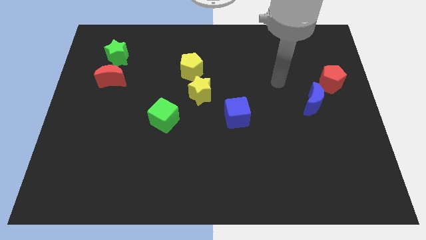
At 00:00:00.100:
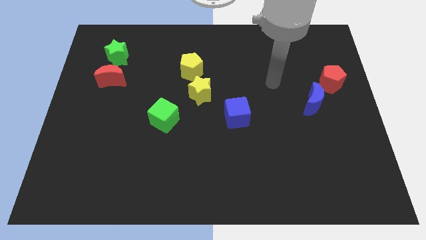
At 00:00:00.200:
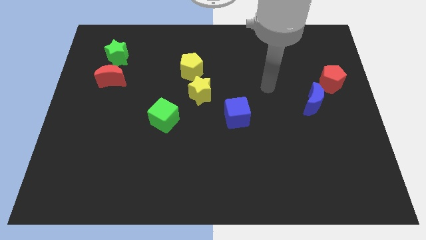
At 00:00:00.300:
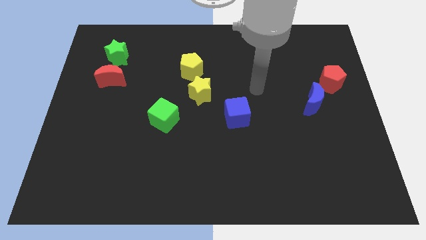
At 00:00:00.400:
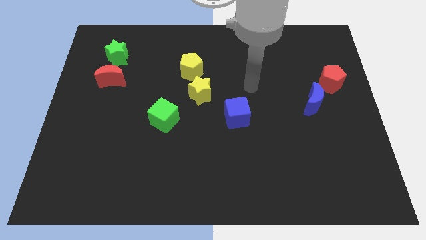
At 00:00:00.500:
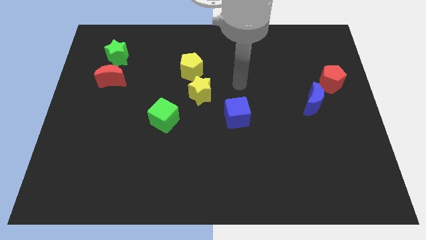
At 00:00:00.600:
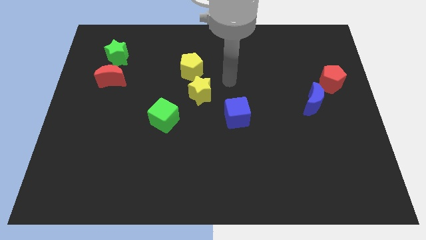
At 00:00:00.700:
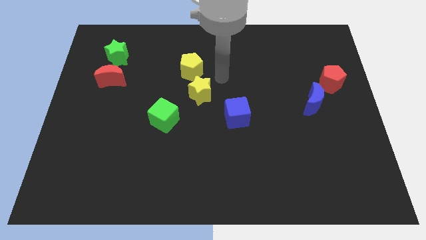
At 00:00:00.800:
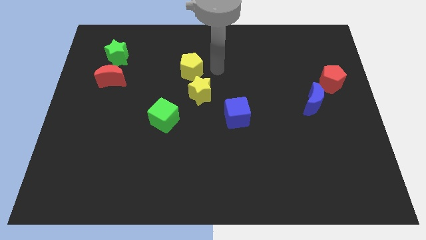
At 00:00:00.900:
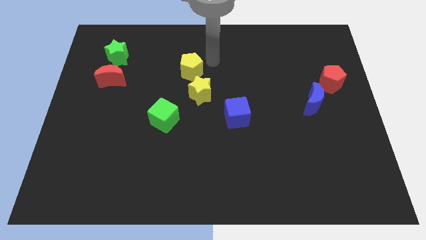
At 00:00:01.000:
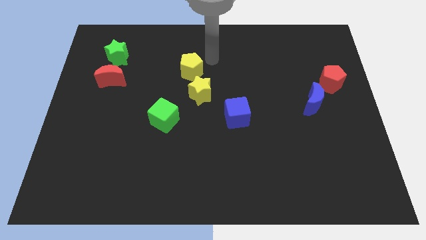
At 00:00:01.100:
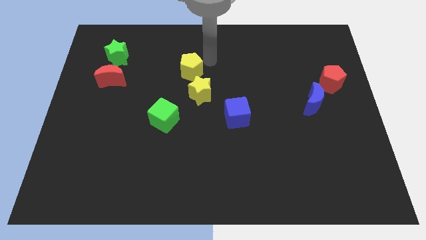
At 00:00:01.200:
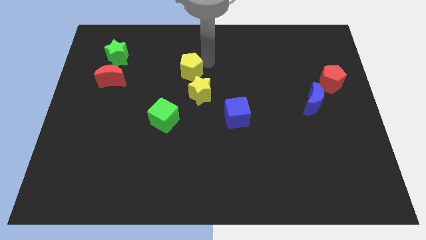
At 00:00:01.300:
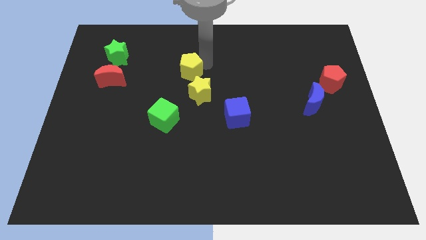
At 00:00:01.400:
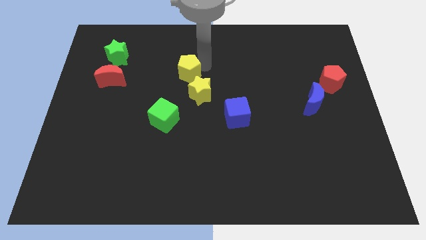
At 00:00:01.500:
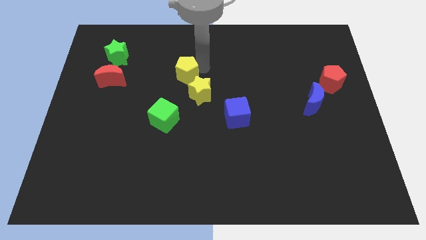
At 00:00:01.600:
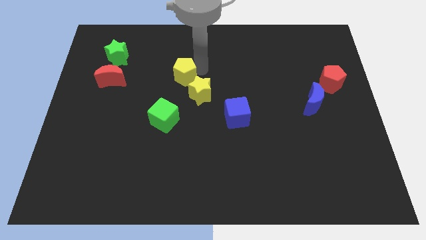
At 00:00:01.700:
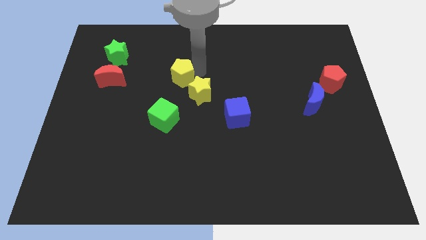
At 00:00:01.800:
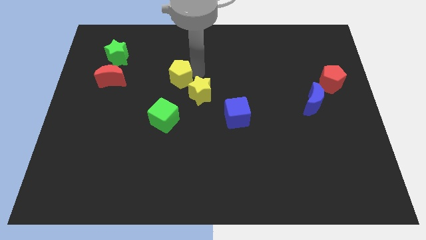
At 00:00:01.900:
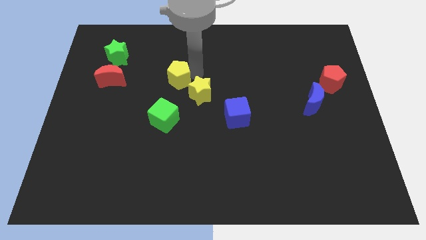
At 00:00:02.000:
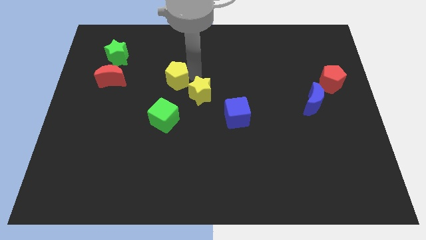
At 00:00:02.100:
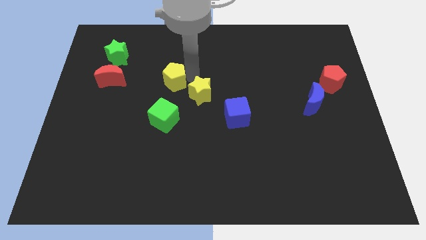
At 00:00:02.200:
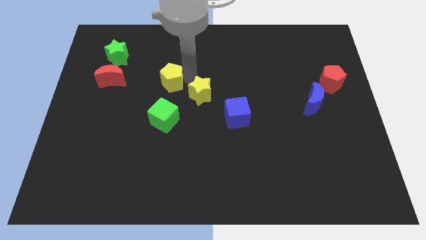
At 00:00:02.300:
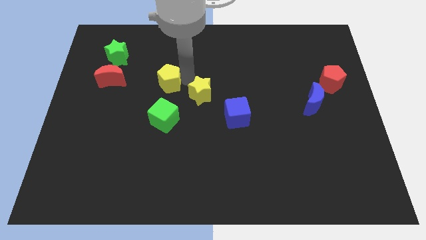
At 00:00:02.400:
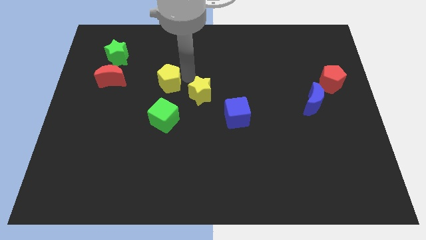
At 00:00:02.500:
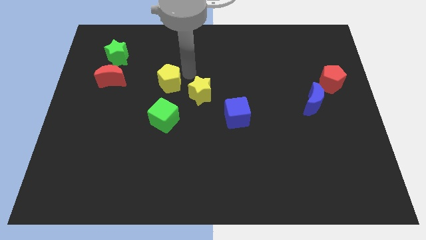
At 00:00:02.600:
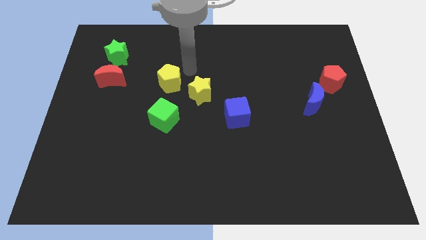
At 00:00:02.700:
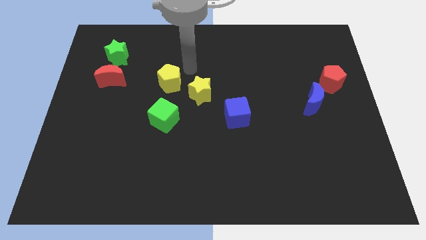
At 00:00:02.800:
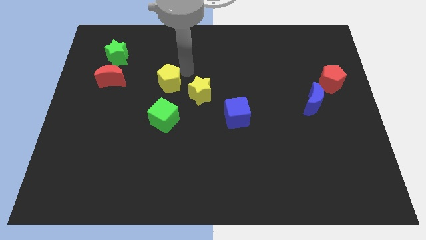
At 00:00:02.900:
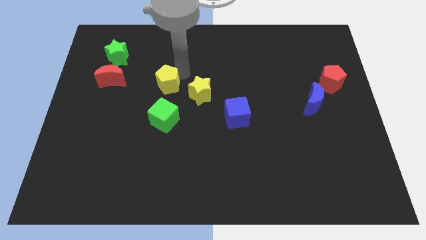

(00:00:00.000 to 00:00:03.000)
move the yellow pentagon downwards and to the left a bit

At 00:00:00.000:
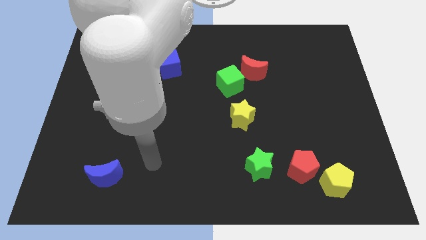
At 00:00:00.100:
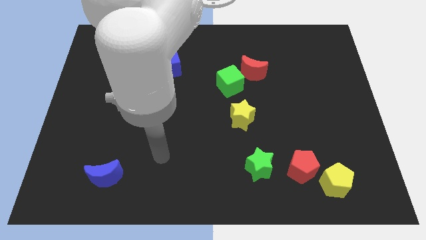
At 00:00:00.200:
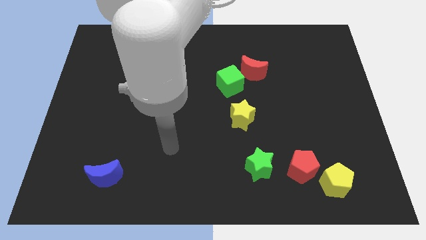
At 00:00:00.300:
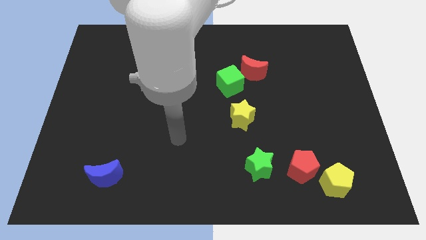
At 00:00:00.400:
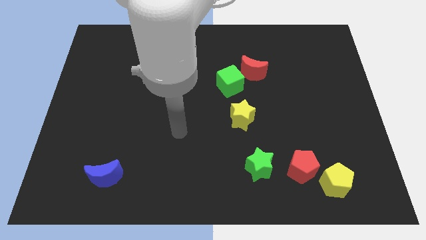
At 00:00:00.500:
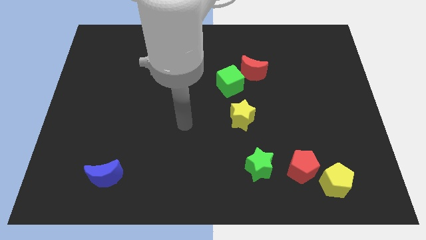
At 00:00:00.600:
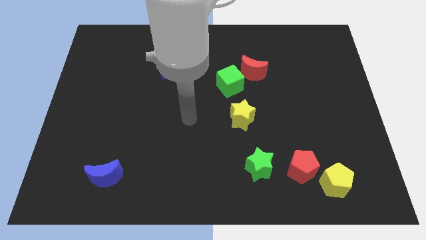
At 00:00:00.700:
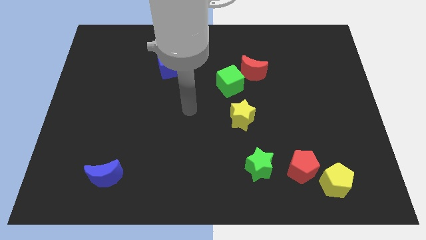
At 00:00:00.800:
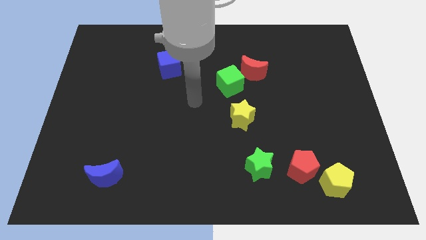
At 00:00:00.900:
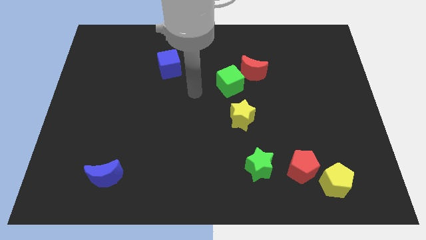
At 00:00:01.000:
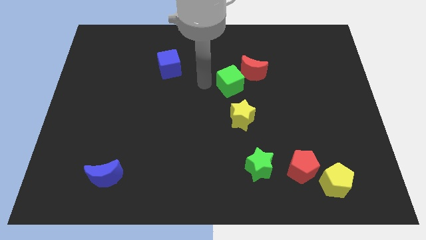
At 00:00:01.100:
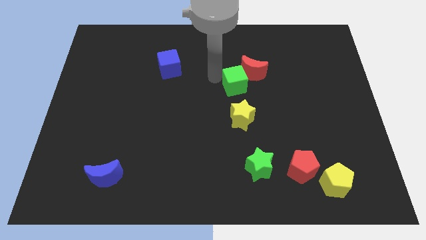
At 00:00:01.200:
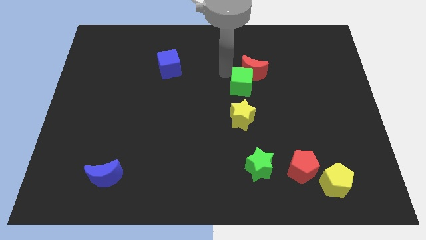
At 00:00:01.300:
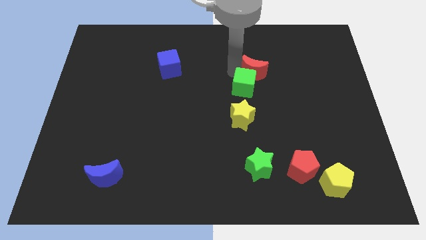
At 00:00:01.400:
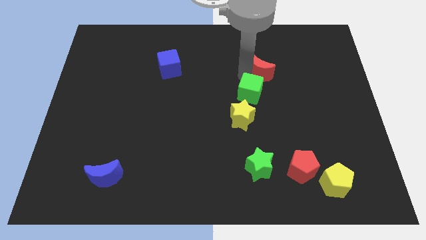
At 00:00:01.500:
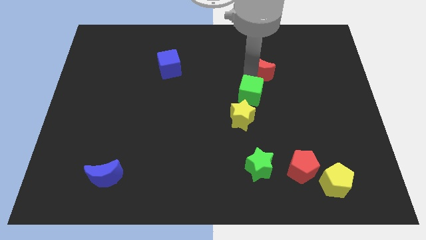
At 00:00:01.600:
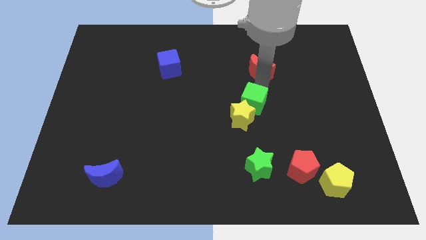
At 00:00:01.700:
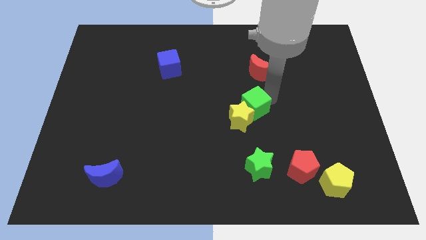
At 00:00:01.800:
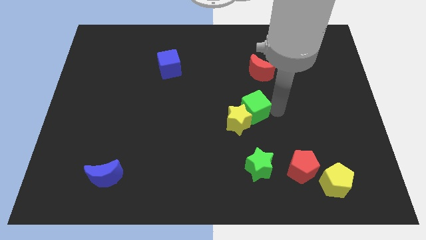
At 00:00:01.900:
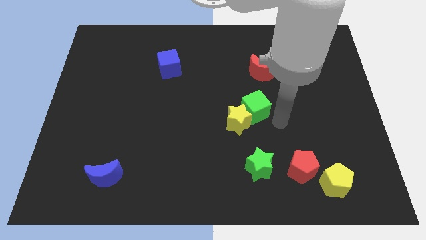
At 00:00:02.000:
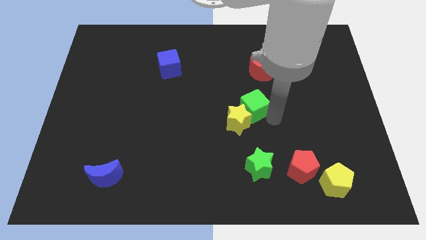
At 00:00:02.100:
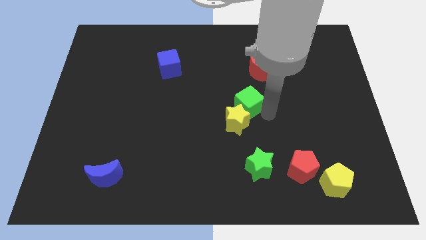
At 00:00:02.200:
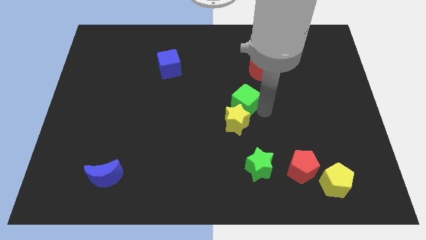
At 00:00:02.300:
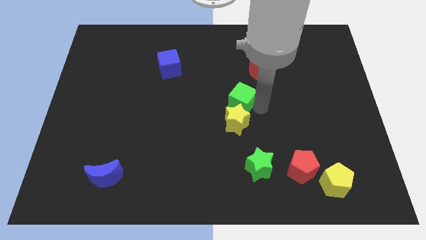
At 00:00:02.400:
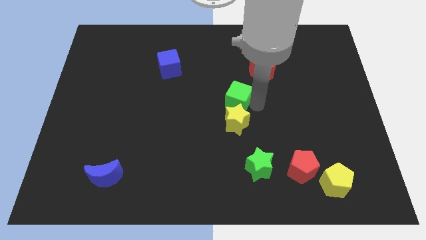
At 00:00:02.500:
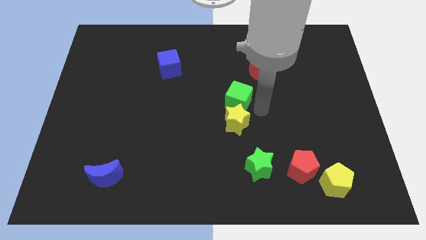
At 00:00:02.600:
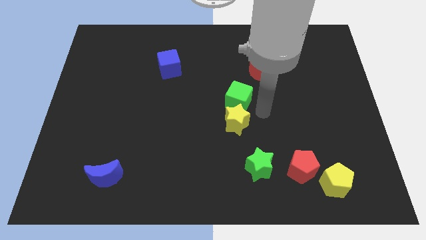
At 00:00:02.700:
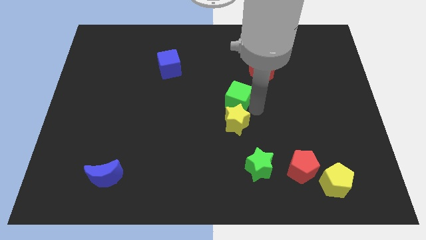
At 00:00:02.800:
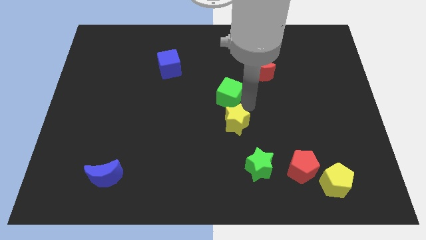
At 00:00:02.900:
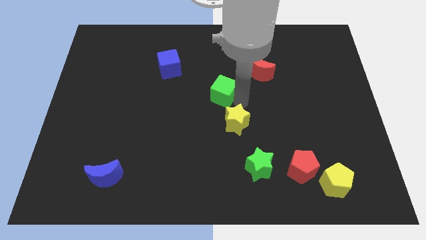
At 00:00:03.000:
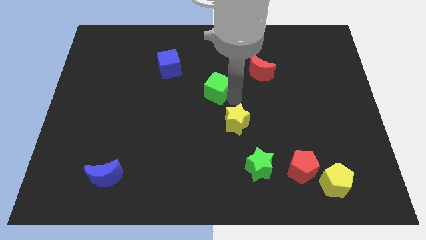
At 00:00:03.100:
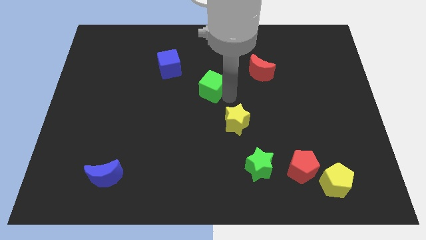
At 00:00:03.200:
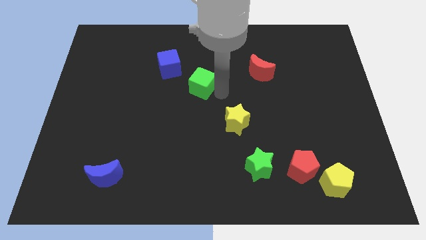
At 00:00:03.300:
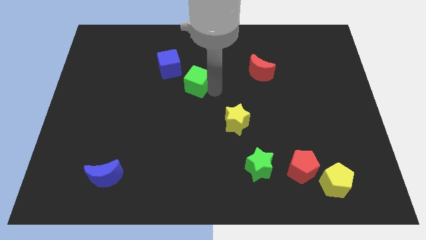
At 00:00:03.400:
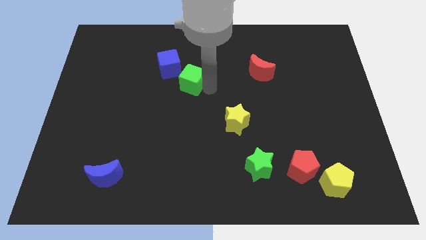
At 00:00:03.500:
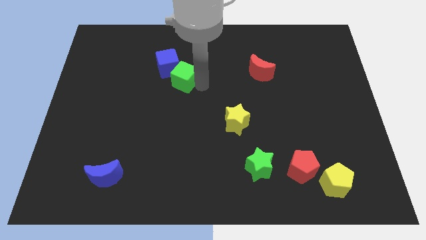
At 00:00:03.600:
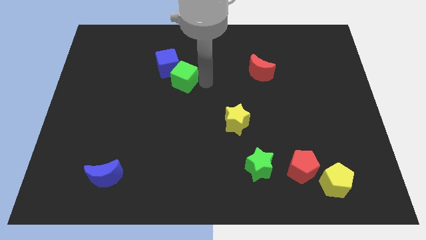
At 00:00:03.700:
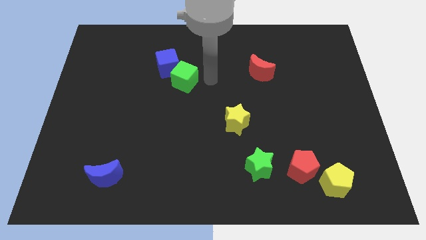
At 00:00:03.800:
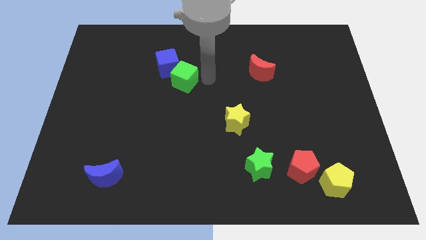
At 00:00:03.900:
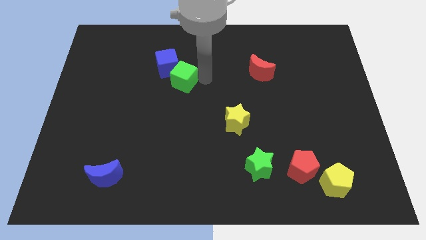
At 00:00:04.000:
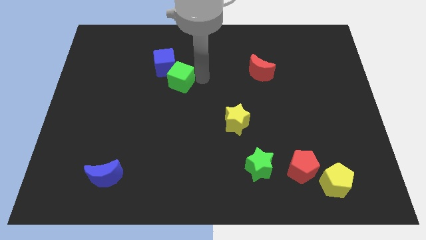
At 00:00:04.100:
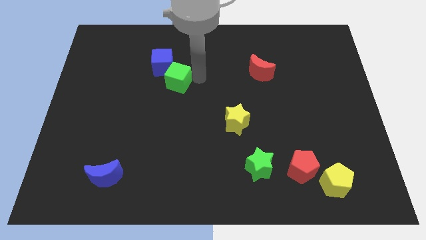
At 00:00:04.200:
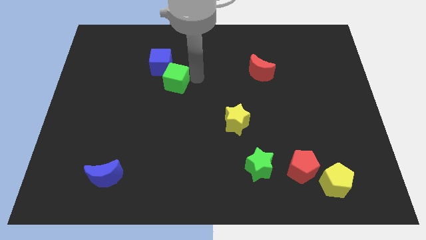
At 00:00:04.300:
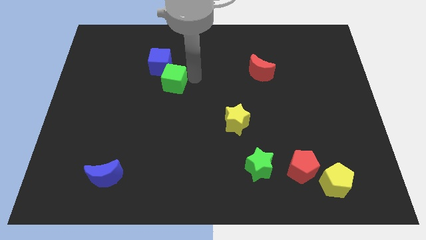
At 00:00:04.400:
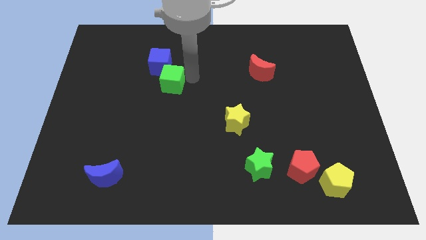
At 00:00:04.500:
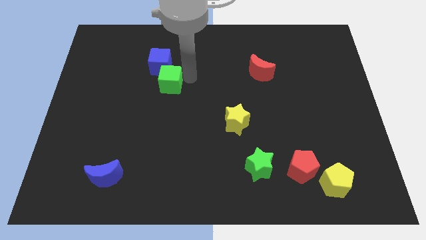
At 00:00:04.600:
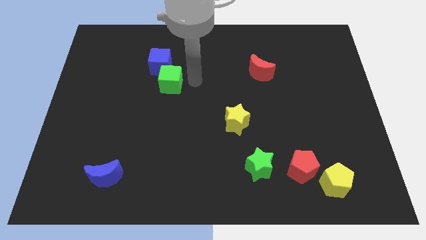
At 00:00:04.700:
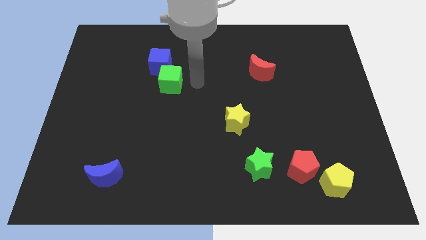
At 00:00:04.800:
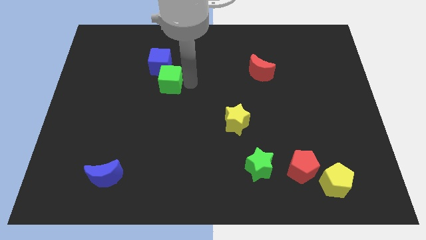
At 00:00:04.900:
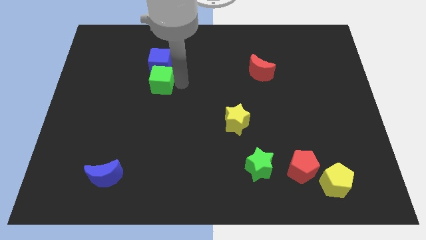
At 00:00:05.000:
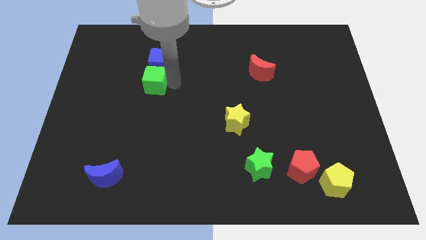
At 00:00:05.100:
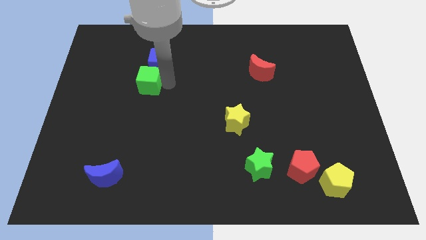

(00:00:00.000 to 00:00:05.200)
move the green cube to the left

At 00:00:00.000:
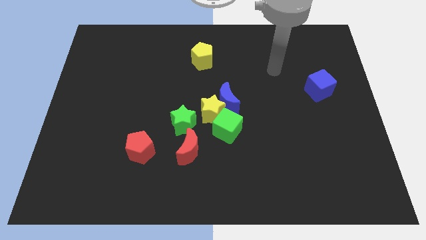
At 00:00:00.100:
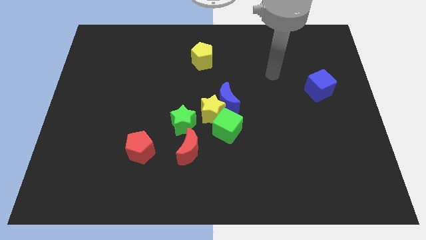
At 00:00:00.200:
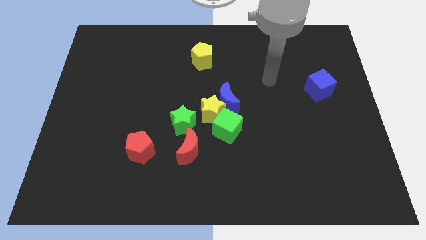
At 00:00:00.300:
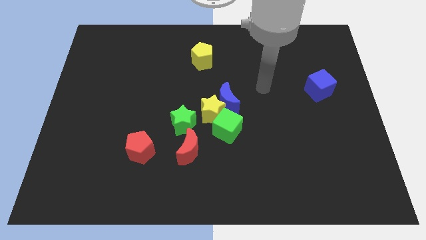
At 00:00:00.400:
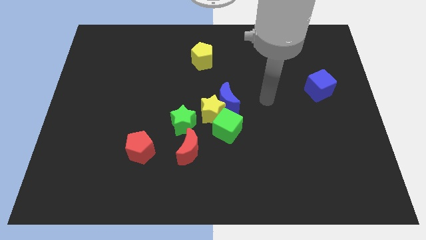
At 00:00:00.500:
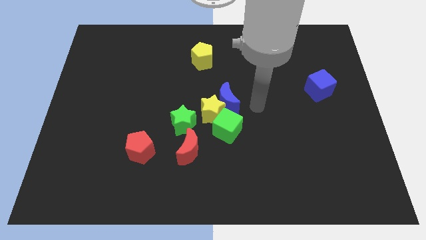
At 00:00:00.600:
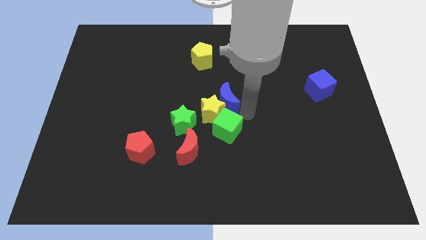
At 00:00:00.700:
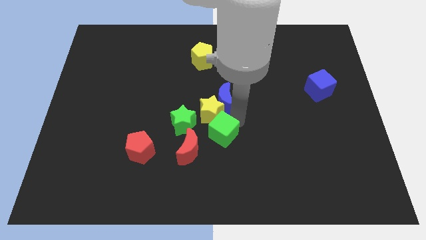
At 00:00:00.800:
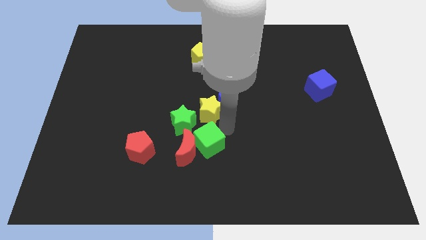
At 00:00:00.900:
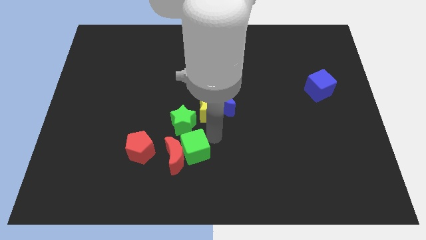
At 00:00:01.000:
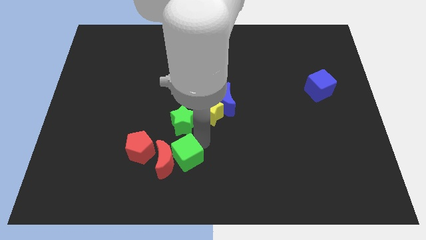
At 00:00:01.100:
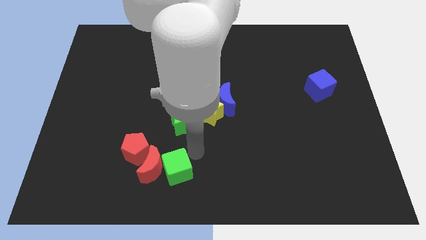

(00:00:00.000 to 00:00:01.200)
slightly push the red moon left
